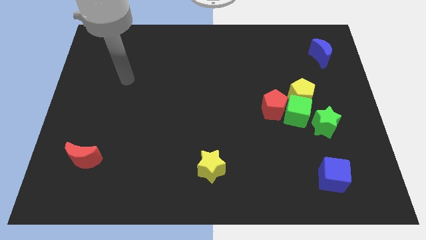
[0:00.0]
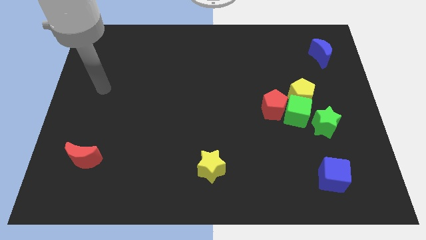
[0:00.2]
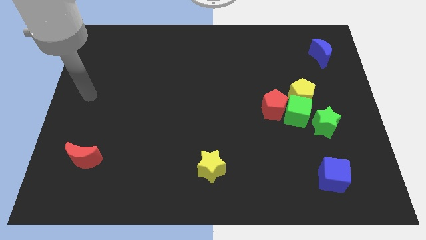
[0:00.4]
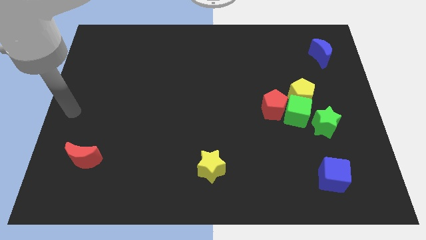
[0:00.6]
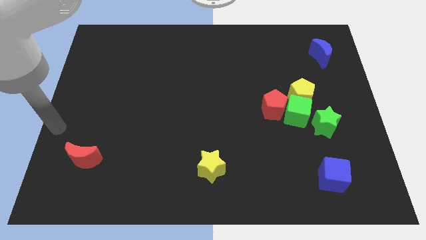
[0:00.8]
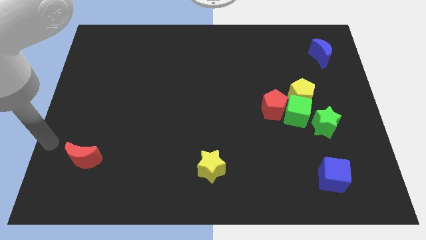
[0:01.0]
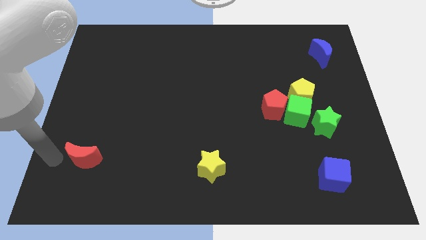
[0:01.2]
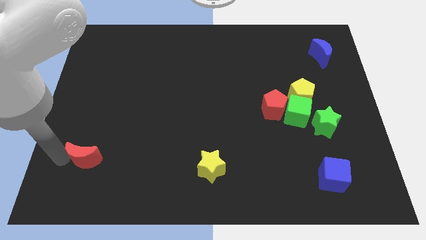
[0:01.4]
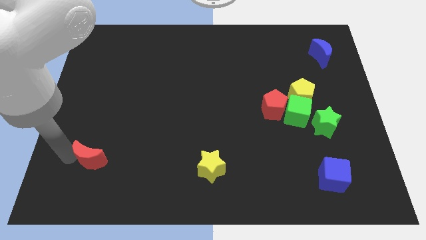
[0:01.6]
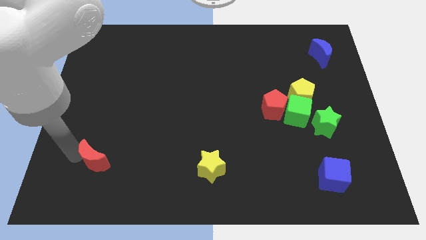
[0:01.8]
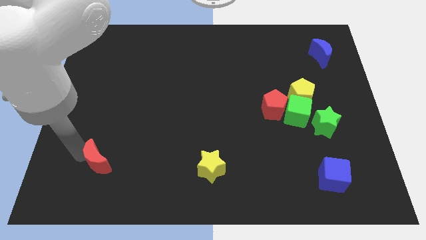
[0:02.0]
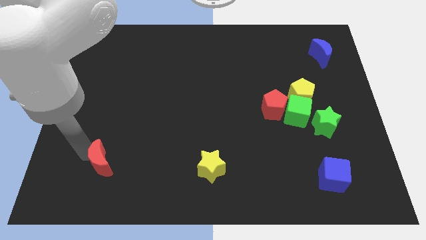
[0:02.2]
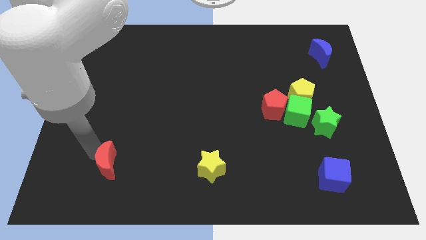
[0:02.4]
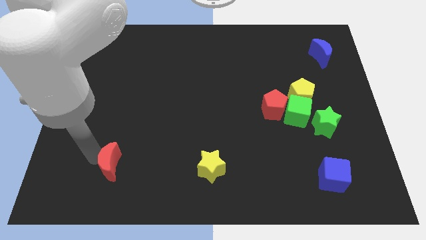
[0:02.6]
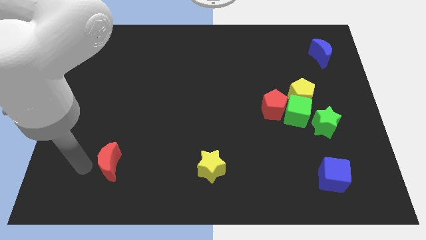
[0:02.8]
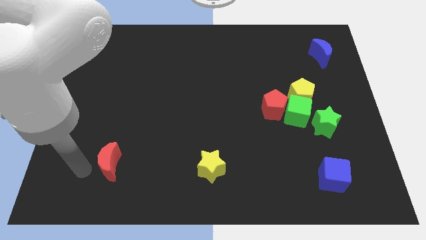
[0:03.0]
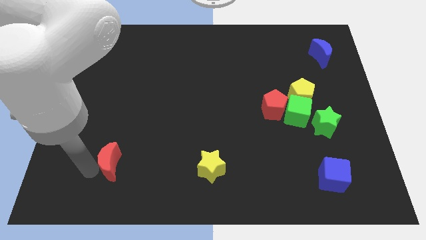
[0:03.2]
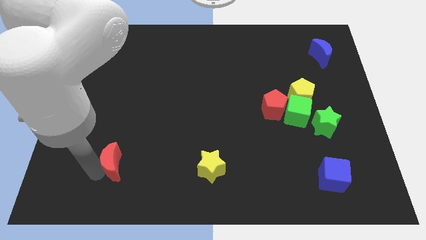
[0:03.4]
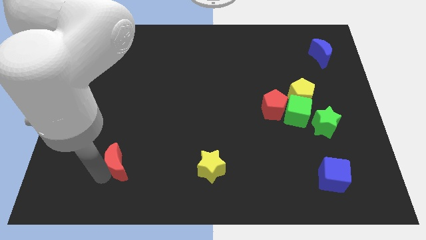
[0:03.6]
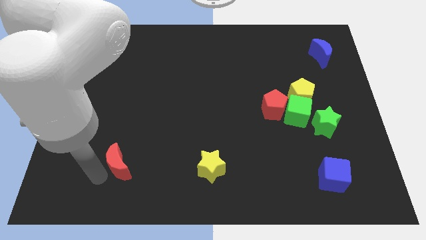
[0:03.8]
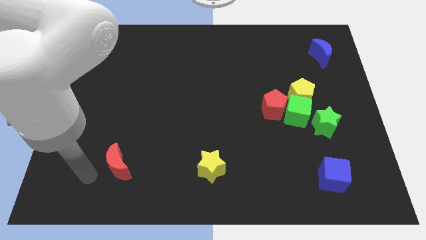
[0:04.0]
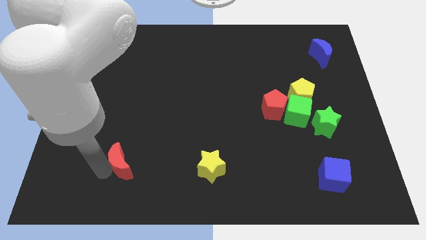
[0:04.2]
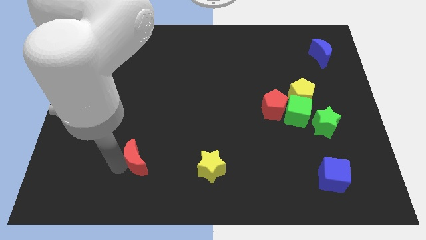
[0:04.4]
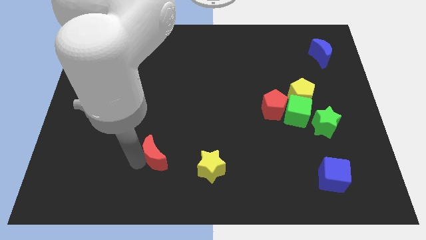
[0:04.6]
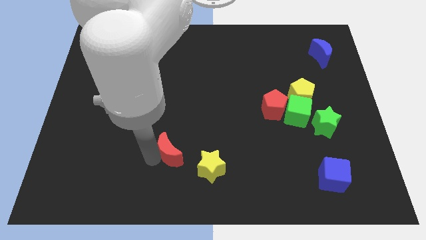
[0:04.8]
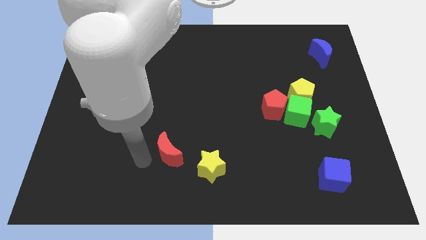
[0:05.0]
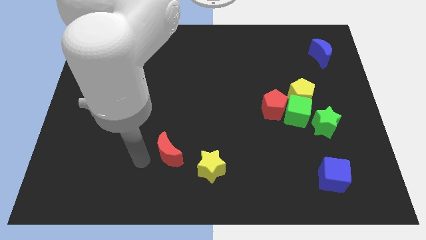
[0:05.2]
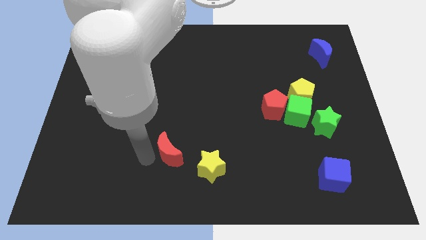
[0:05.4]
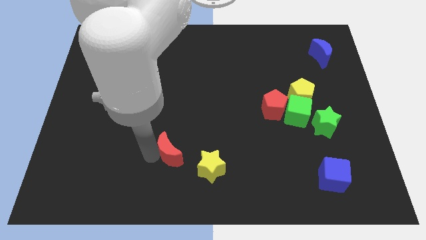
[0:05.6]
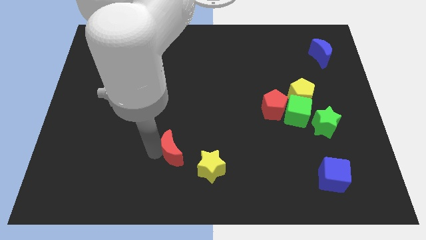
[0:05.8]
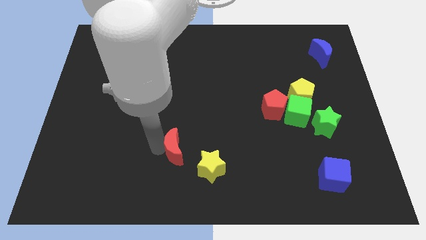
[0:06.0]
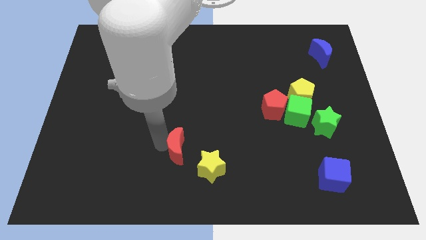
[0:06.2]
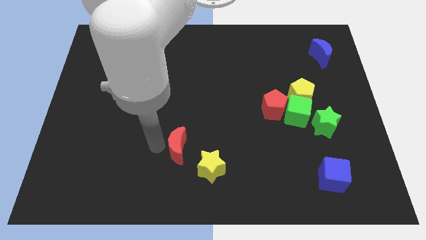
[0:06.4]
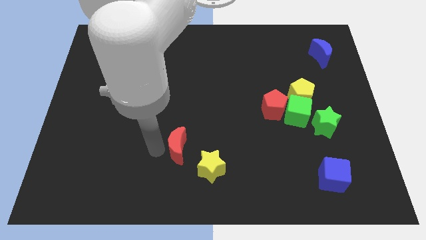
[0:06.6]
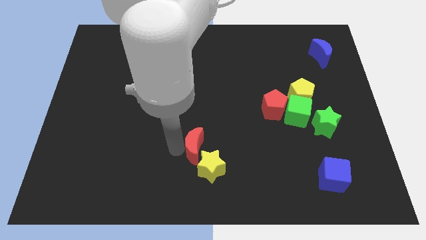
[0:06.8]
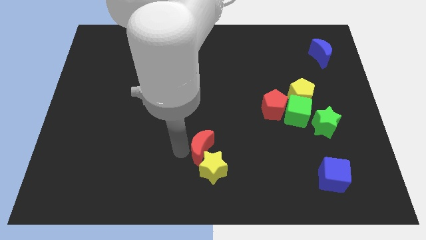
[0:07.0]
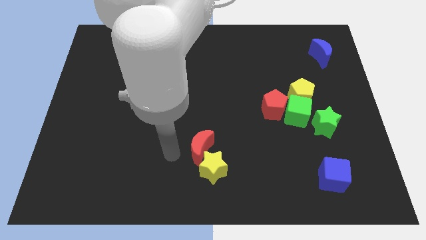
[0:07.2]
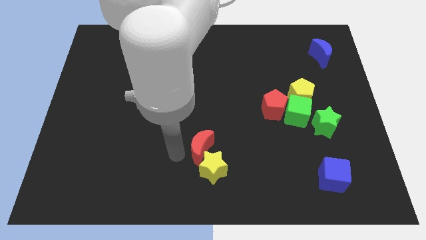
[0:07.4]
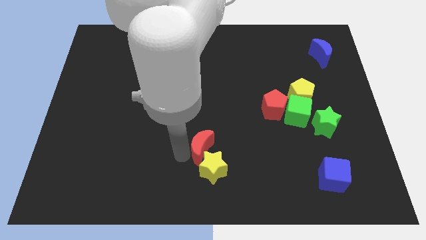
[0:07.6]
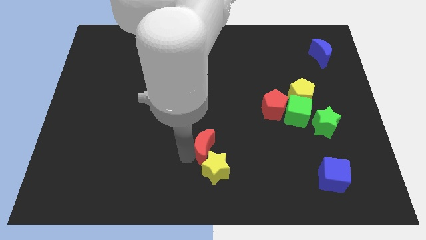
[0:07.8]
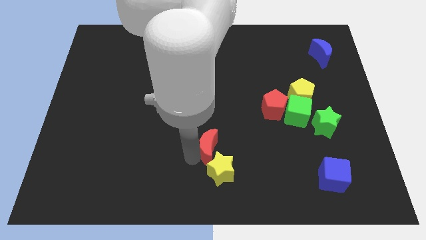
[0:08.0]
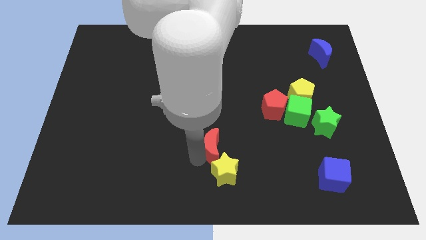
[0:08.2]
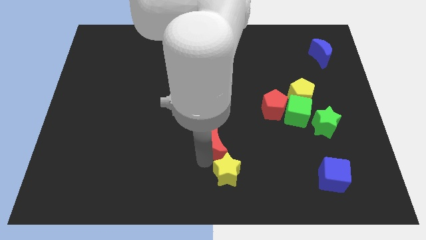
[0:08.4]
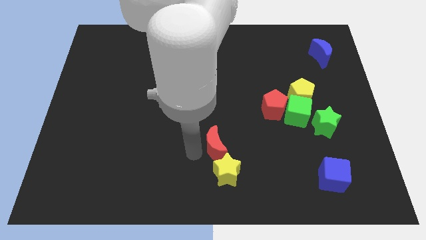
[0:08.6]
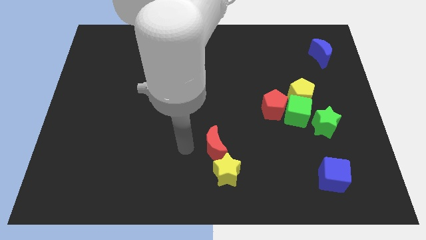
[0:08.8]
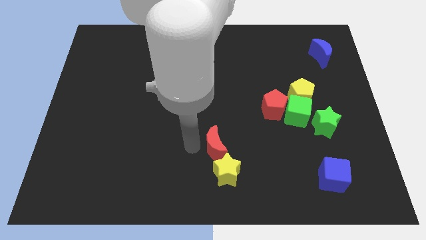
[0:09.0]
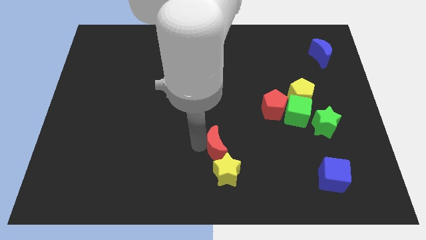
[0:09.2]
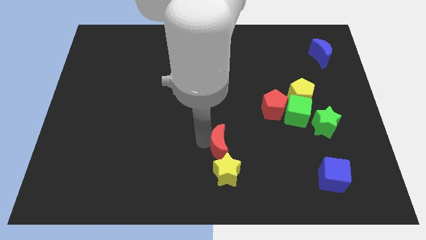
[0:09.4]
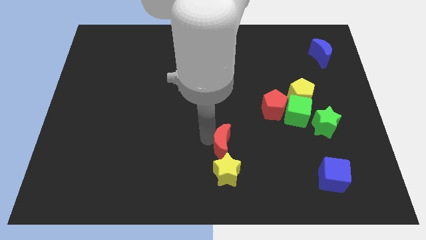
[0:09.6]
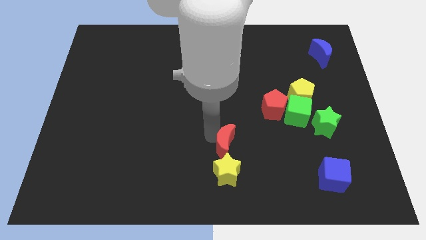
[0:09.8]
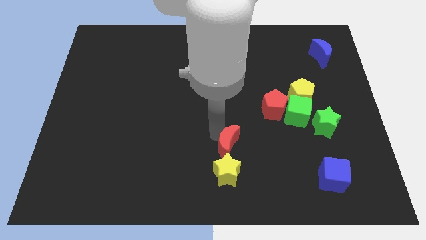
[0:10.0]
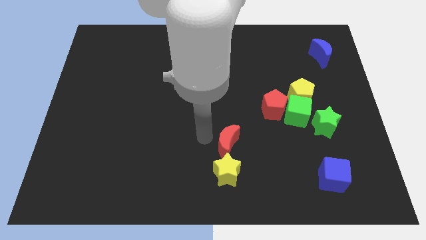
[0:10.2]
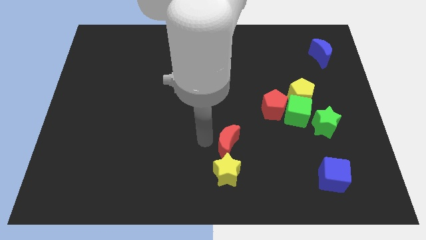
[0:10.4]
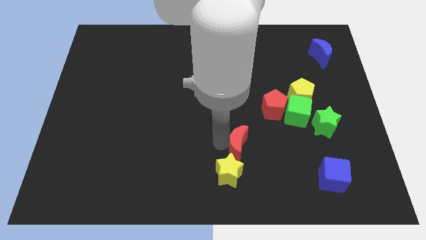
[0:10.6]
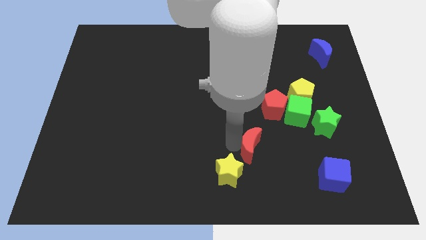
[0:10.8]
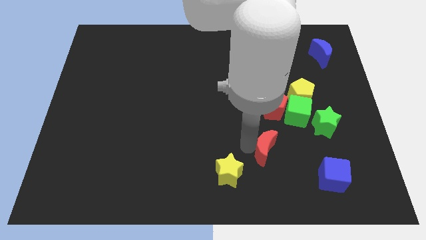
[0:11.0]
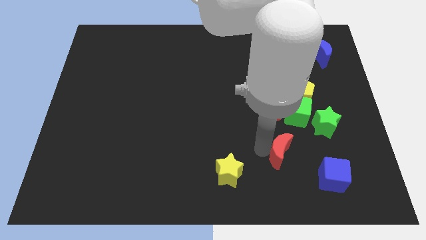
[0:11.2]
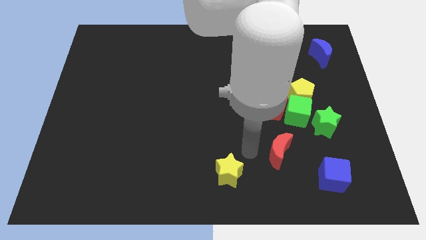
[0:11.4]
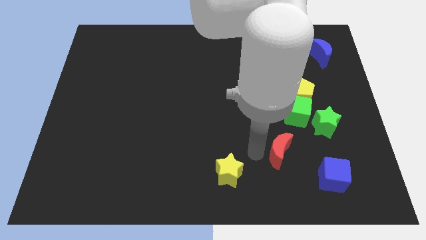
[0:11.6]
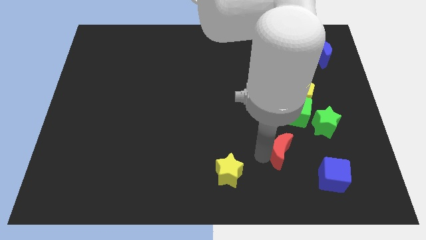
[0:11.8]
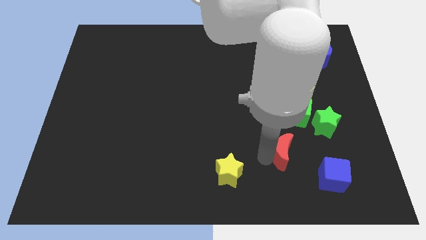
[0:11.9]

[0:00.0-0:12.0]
put the red moon to the bottom side of the green cube

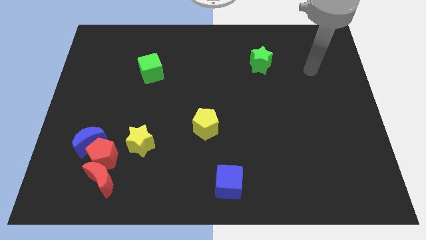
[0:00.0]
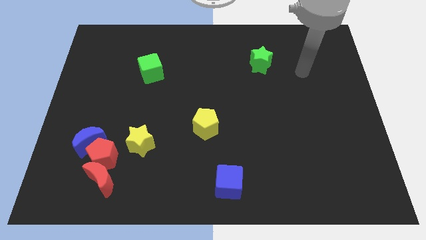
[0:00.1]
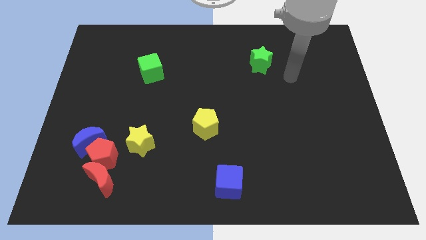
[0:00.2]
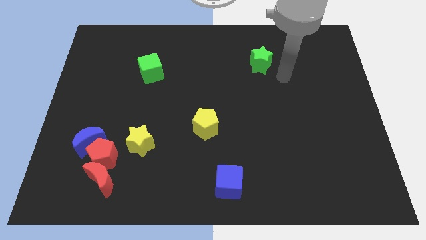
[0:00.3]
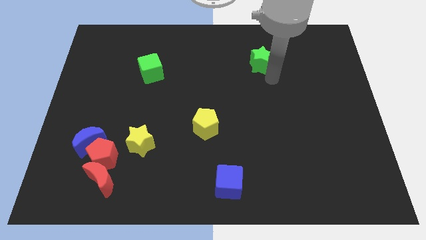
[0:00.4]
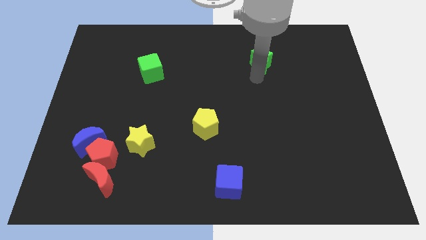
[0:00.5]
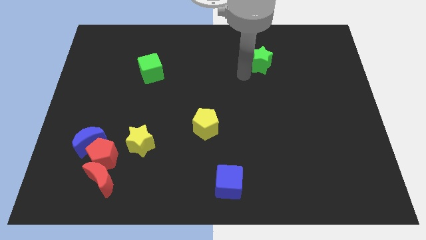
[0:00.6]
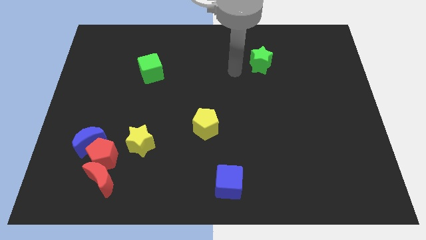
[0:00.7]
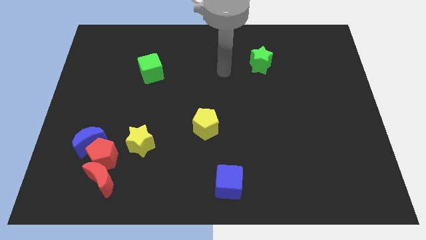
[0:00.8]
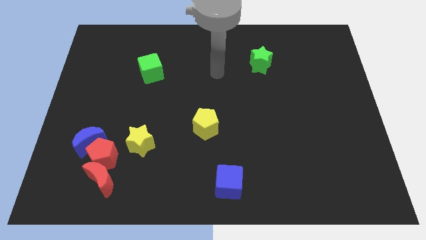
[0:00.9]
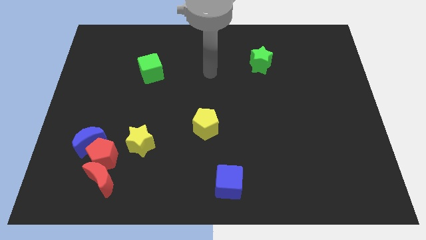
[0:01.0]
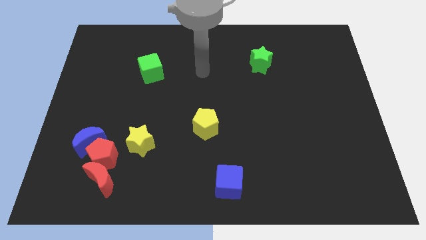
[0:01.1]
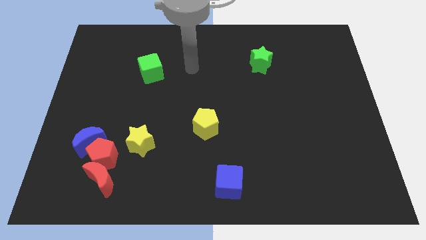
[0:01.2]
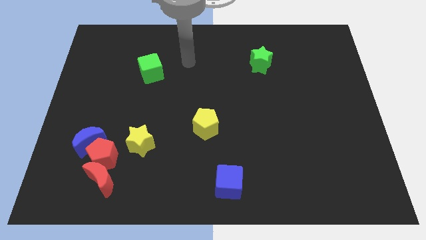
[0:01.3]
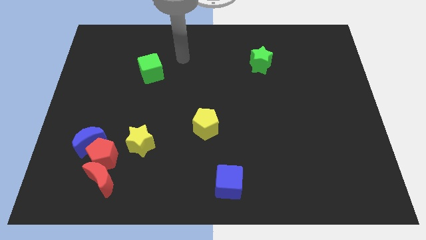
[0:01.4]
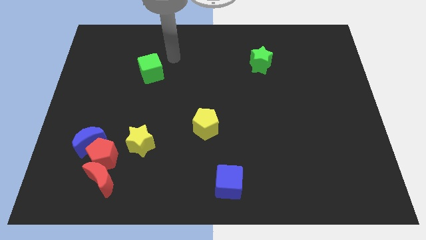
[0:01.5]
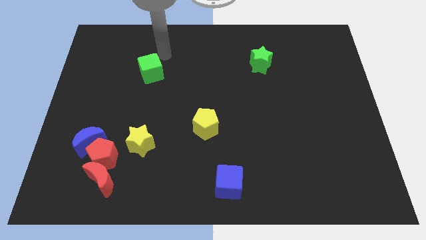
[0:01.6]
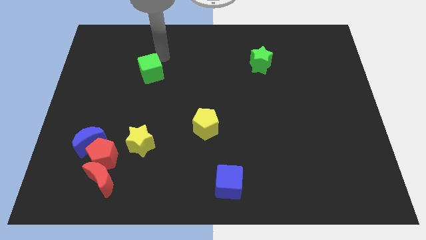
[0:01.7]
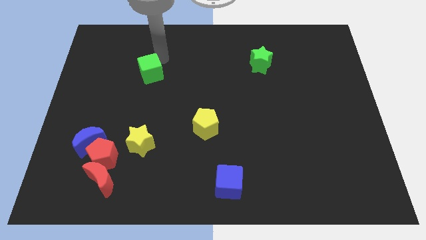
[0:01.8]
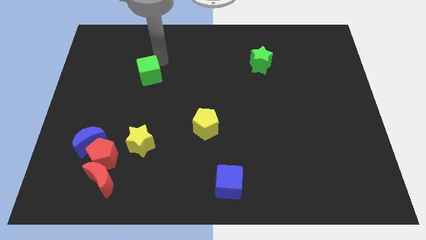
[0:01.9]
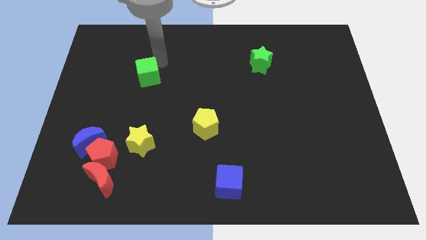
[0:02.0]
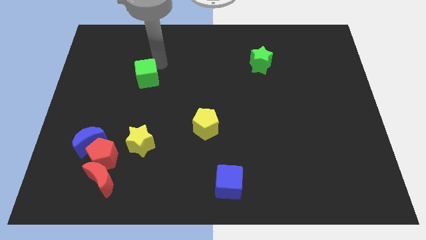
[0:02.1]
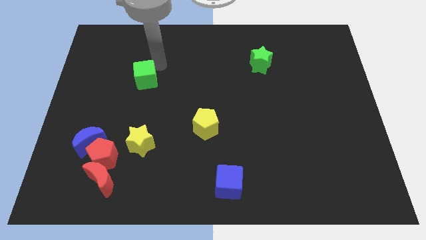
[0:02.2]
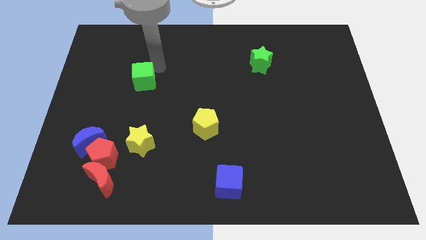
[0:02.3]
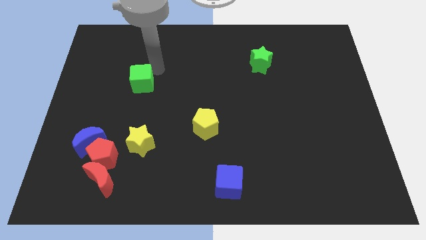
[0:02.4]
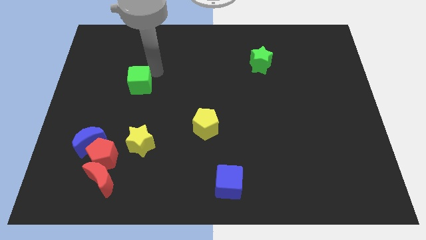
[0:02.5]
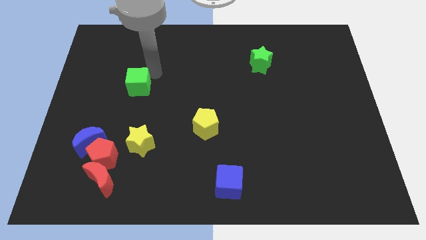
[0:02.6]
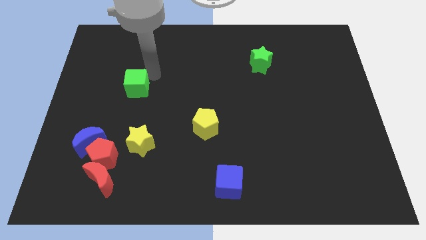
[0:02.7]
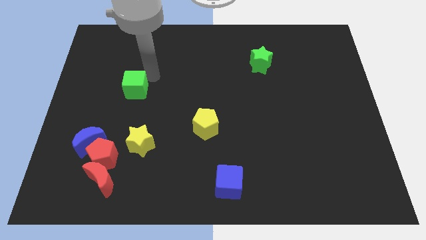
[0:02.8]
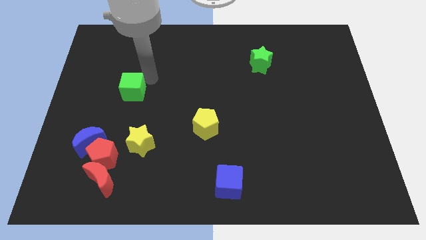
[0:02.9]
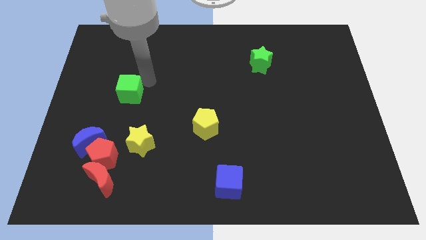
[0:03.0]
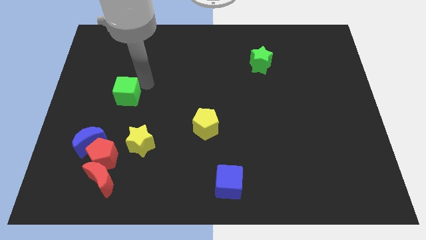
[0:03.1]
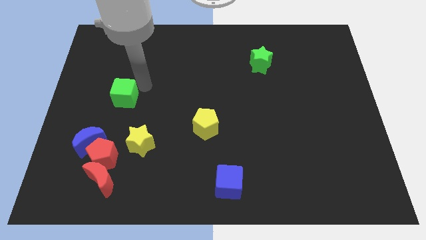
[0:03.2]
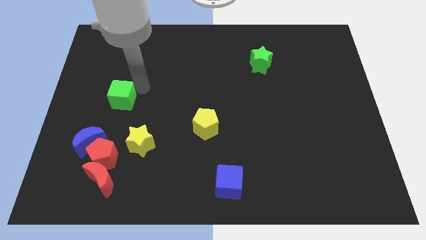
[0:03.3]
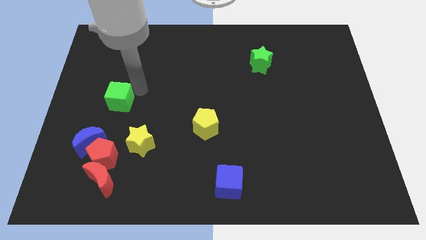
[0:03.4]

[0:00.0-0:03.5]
push the green cube to the top of the red pentagon
